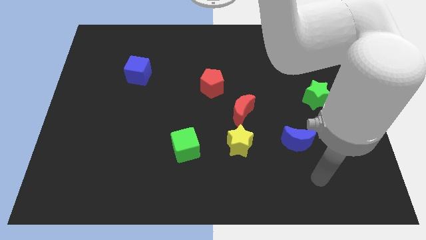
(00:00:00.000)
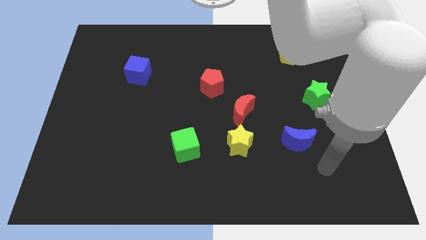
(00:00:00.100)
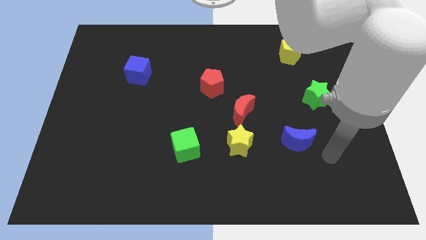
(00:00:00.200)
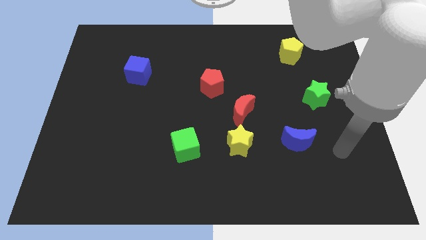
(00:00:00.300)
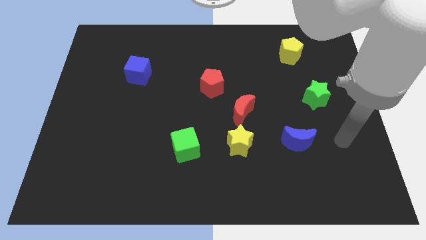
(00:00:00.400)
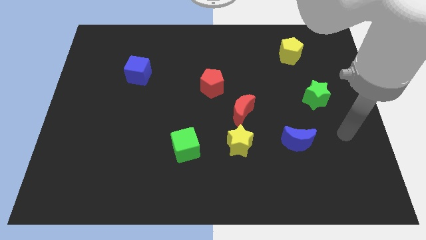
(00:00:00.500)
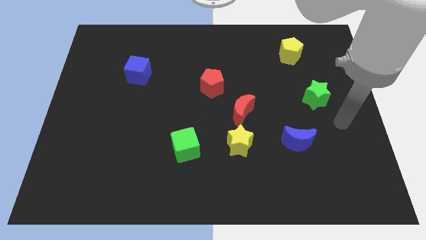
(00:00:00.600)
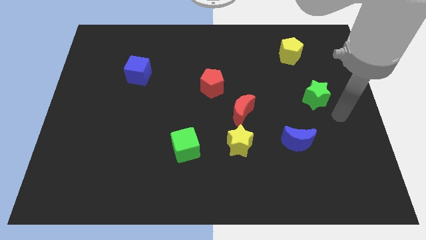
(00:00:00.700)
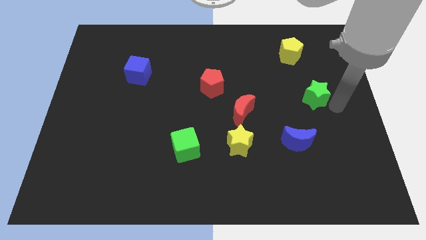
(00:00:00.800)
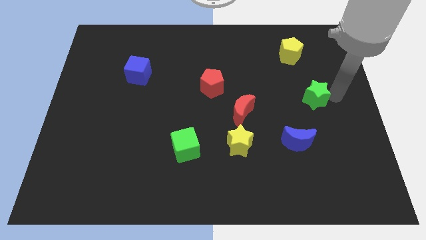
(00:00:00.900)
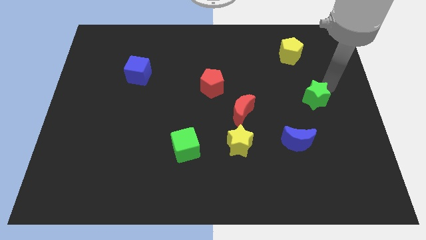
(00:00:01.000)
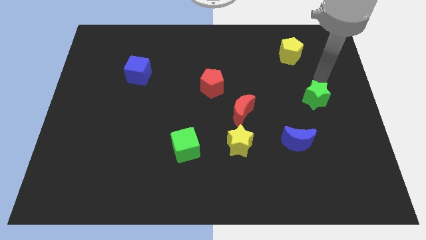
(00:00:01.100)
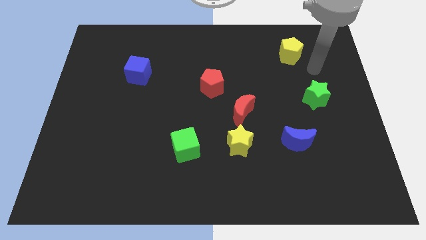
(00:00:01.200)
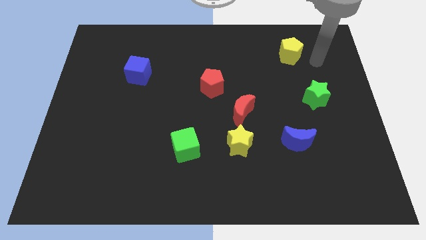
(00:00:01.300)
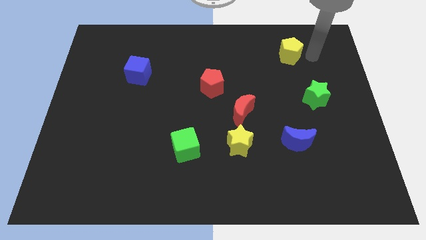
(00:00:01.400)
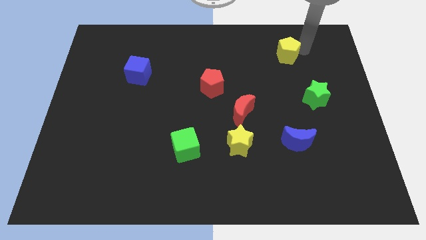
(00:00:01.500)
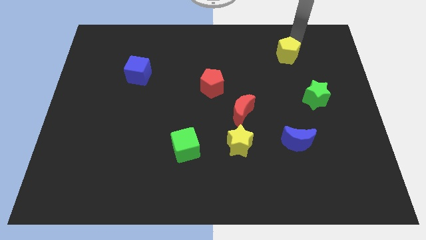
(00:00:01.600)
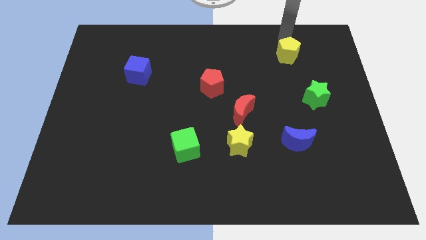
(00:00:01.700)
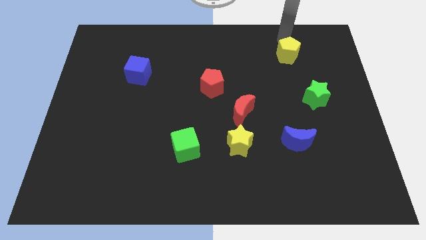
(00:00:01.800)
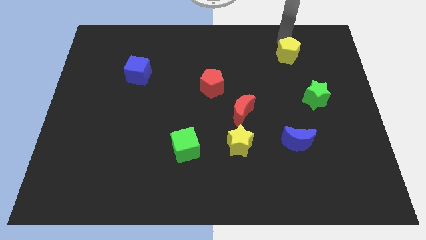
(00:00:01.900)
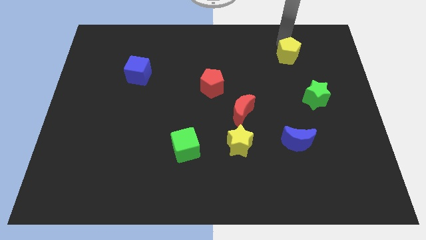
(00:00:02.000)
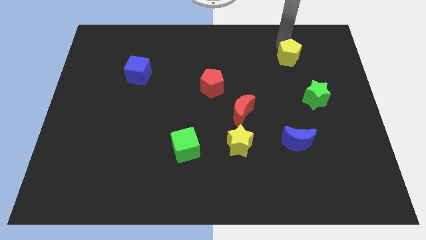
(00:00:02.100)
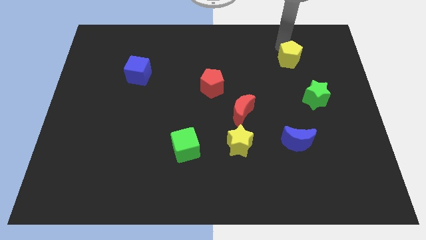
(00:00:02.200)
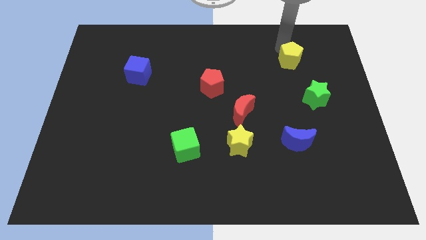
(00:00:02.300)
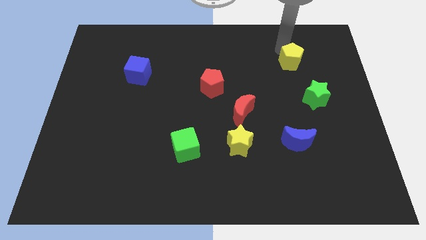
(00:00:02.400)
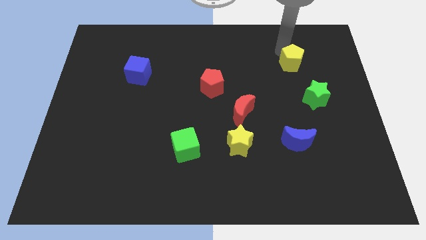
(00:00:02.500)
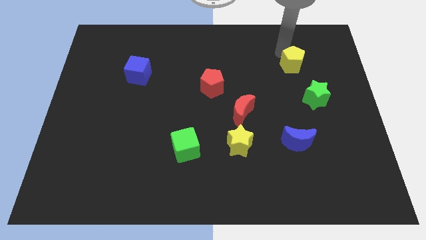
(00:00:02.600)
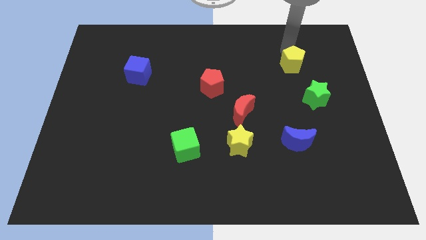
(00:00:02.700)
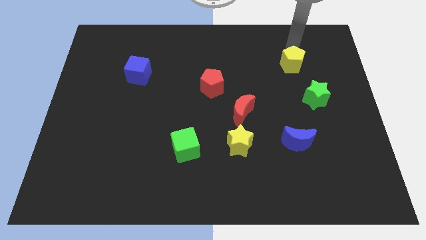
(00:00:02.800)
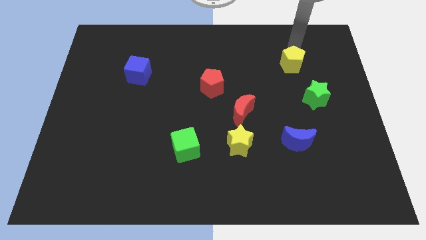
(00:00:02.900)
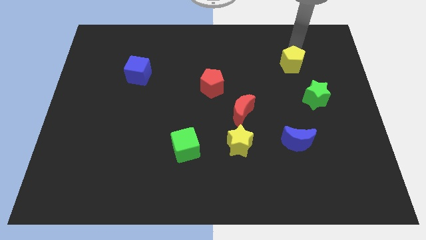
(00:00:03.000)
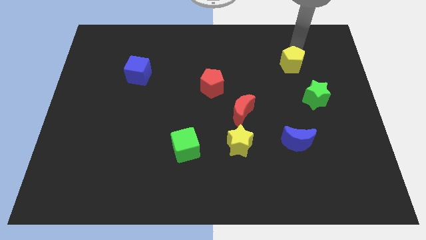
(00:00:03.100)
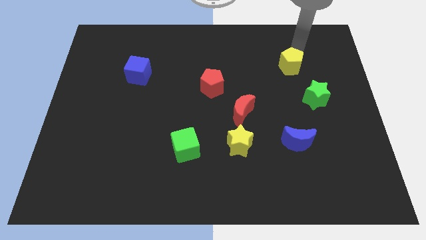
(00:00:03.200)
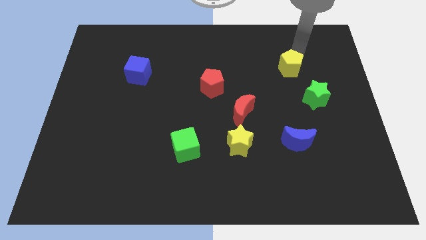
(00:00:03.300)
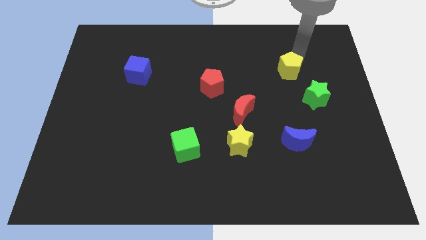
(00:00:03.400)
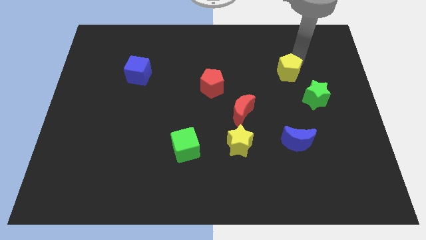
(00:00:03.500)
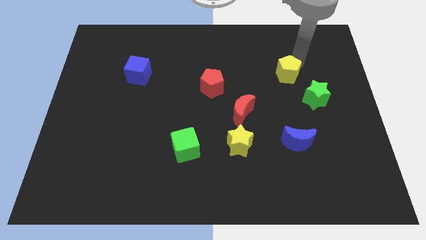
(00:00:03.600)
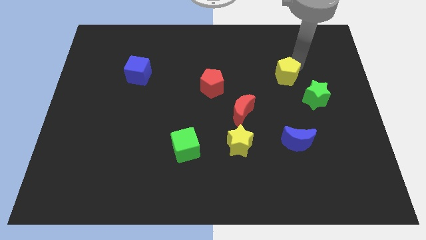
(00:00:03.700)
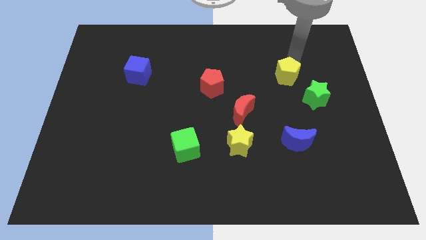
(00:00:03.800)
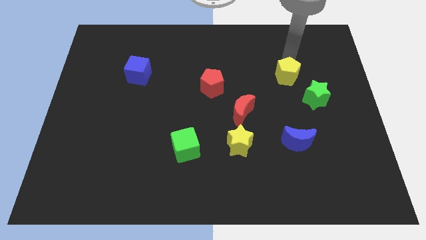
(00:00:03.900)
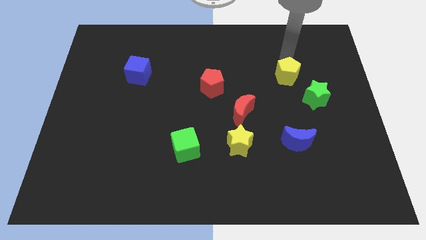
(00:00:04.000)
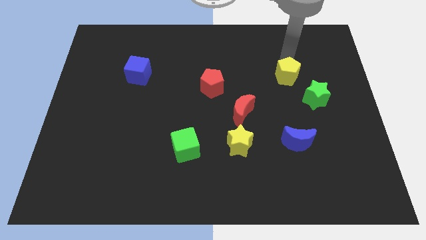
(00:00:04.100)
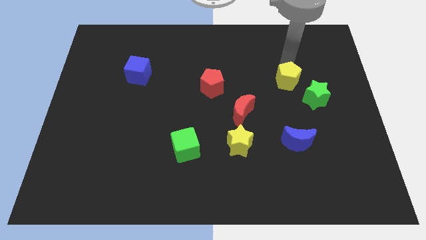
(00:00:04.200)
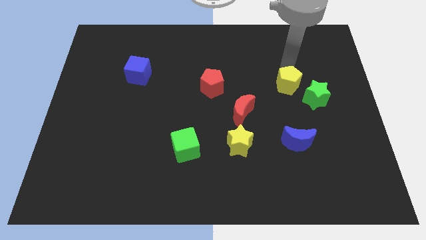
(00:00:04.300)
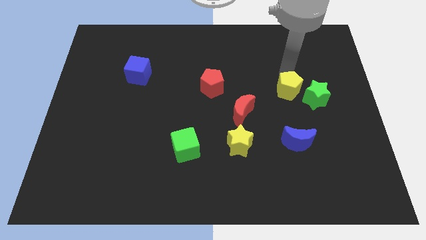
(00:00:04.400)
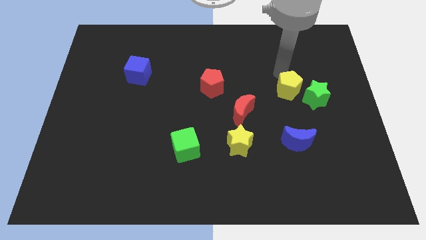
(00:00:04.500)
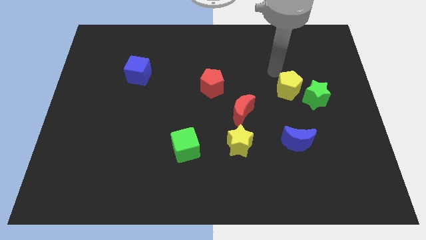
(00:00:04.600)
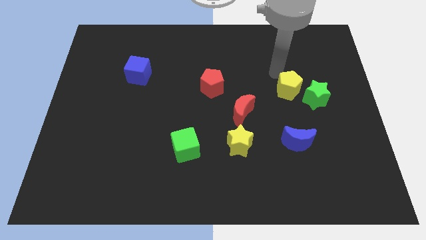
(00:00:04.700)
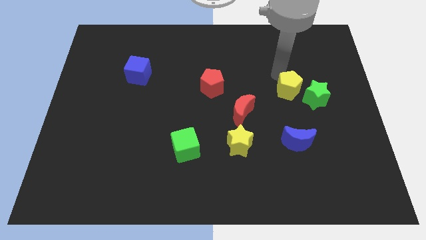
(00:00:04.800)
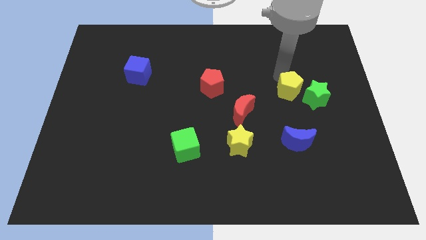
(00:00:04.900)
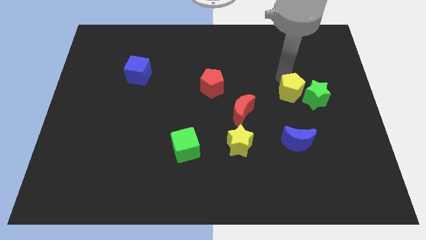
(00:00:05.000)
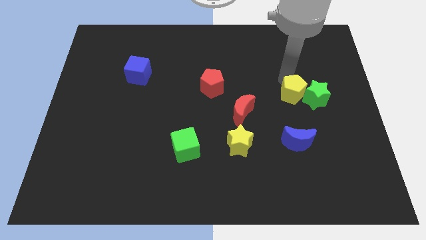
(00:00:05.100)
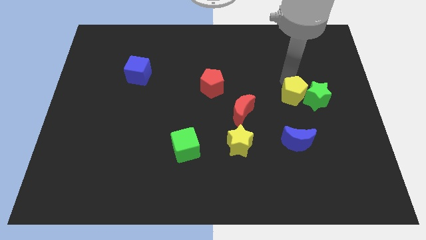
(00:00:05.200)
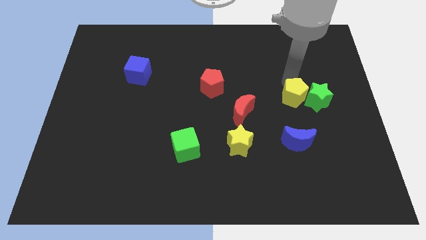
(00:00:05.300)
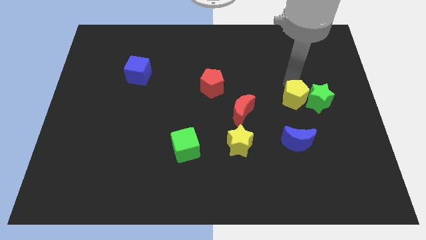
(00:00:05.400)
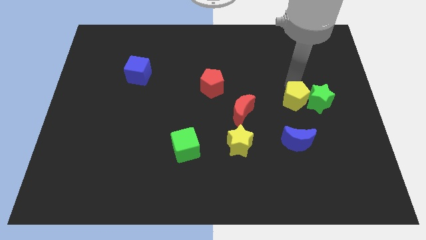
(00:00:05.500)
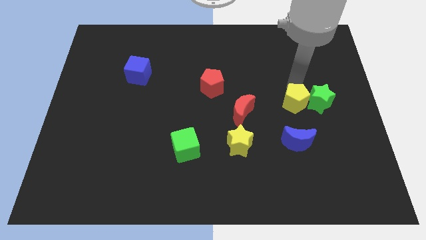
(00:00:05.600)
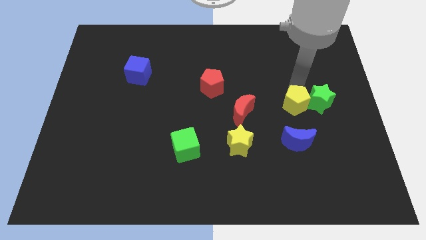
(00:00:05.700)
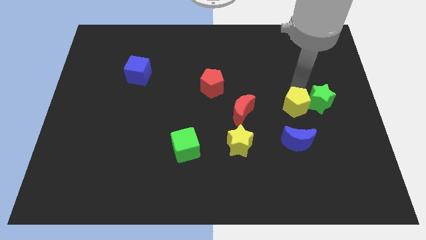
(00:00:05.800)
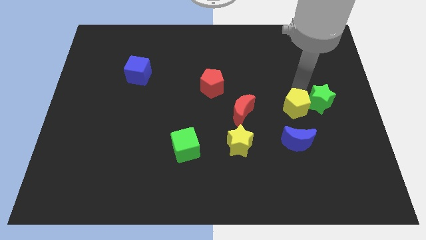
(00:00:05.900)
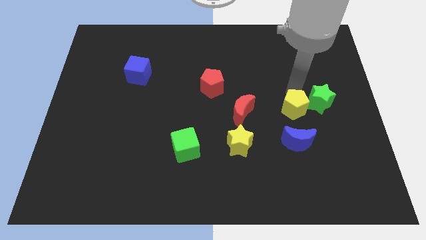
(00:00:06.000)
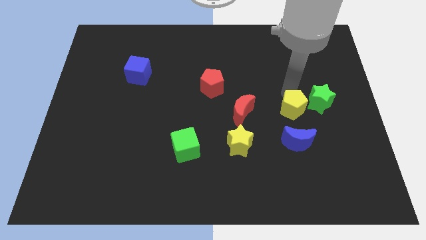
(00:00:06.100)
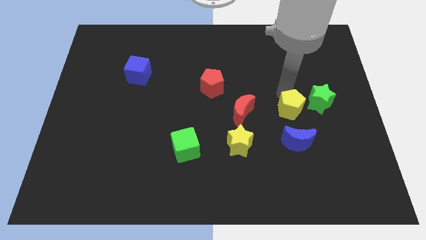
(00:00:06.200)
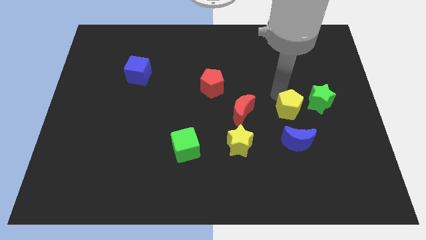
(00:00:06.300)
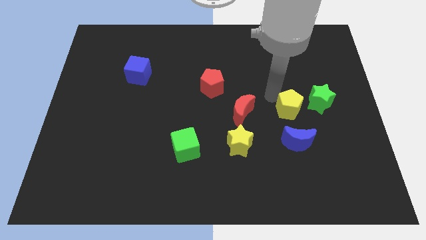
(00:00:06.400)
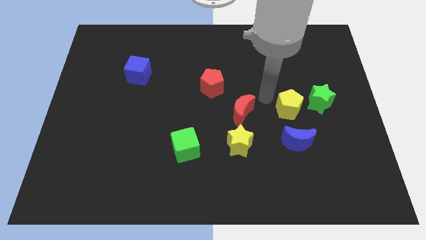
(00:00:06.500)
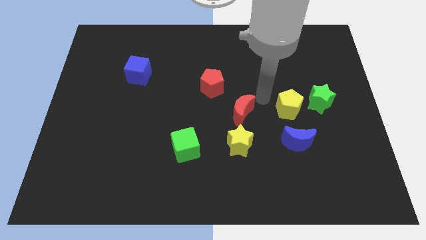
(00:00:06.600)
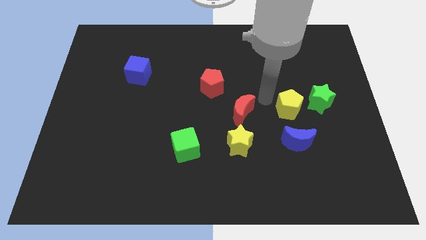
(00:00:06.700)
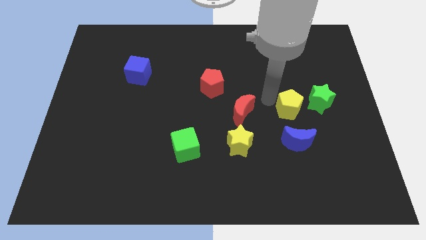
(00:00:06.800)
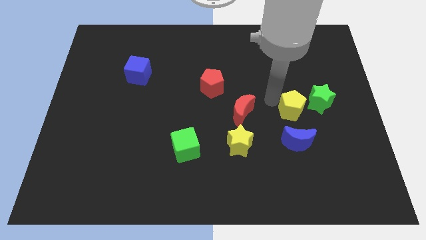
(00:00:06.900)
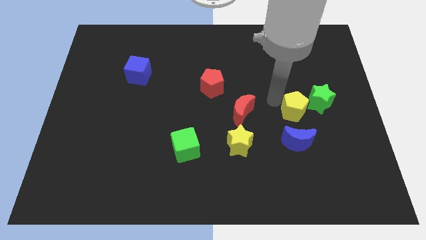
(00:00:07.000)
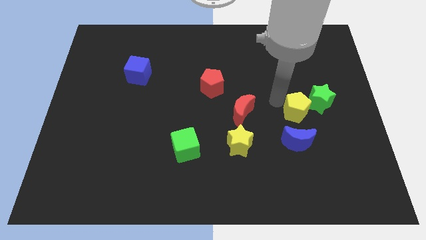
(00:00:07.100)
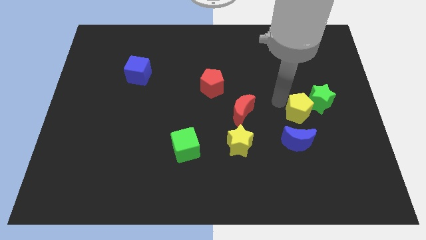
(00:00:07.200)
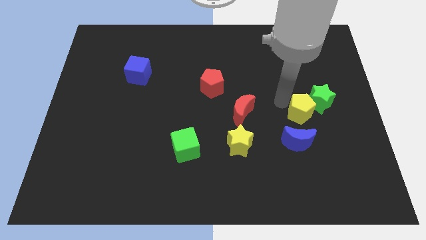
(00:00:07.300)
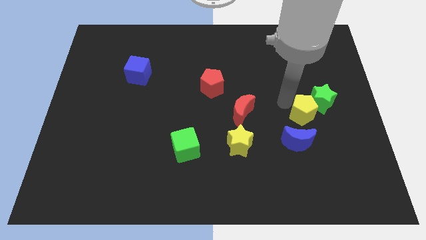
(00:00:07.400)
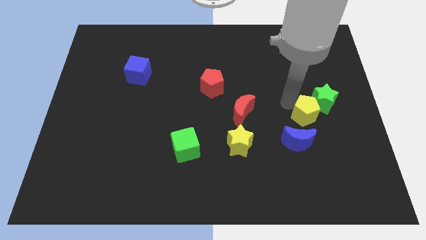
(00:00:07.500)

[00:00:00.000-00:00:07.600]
move the yellow pentagon down
